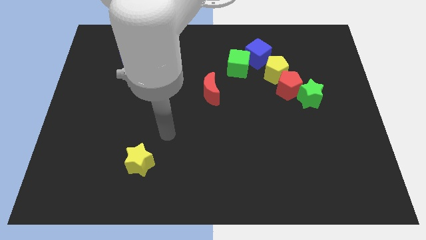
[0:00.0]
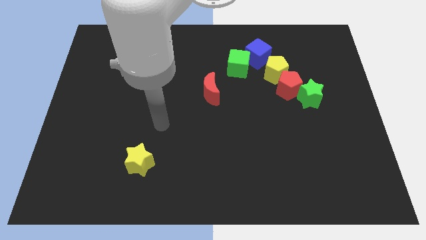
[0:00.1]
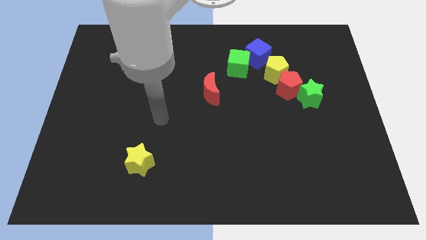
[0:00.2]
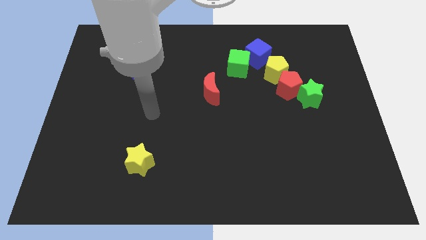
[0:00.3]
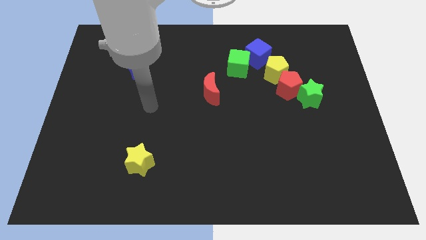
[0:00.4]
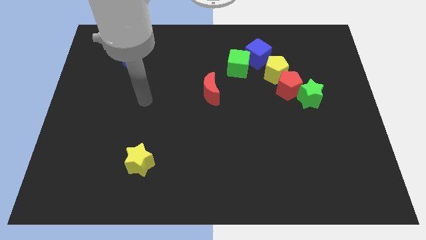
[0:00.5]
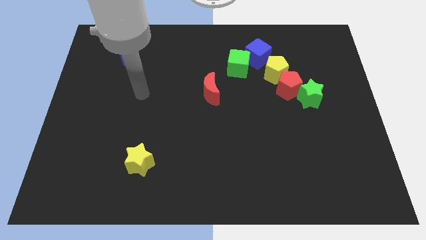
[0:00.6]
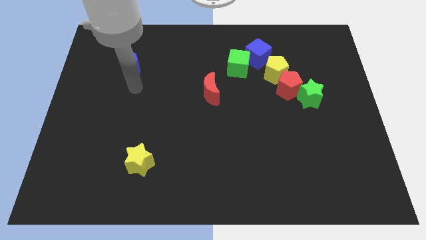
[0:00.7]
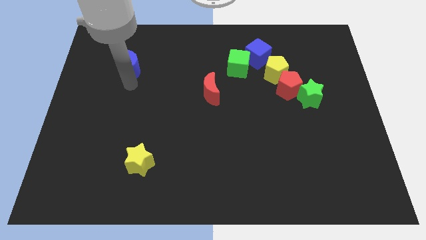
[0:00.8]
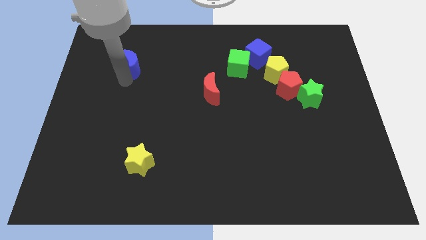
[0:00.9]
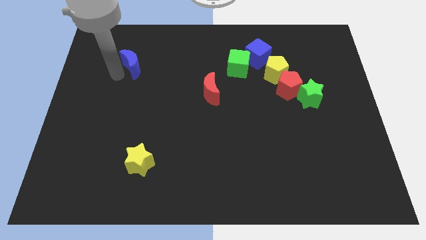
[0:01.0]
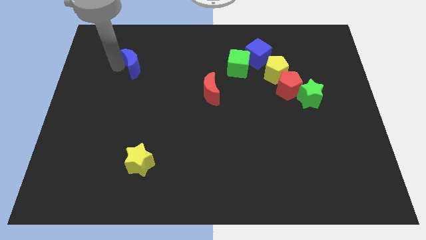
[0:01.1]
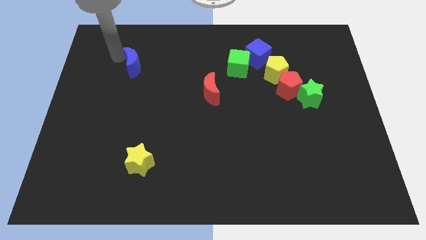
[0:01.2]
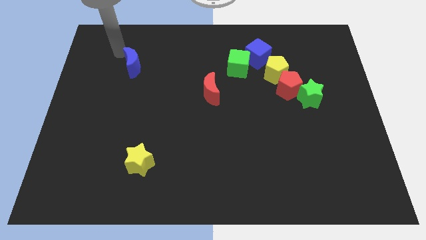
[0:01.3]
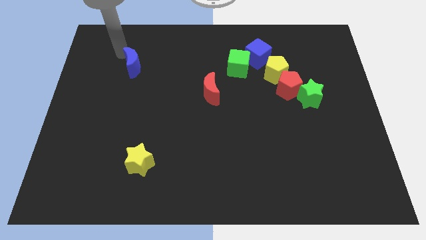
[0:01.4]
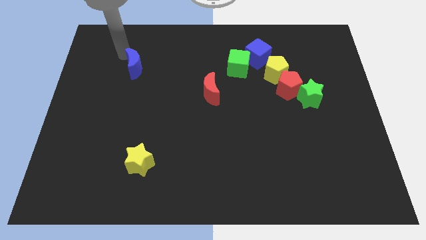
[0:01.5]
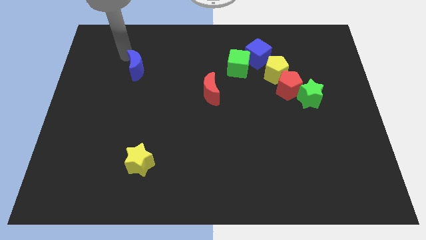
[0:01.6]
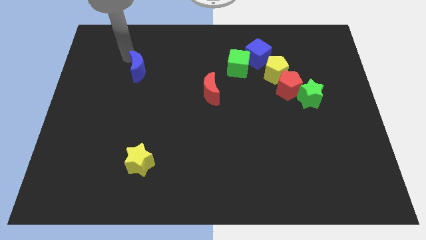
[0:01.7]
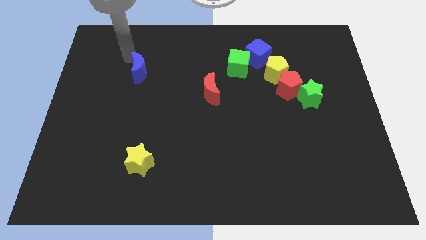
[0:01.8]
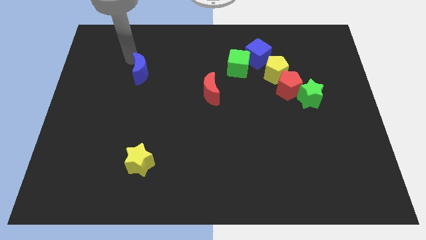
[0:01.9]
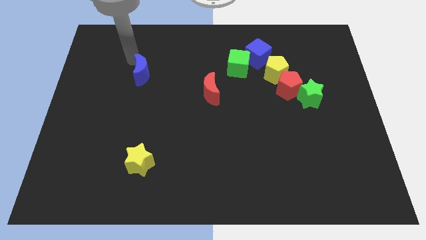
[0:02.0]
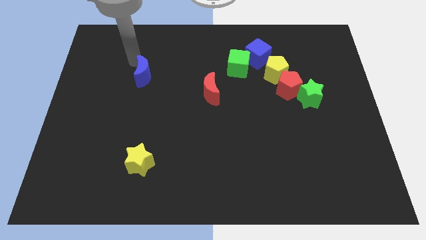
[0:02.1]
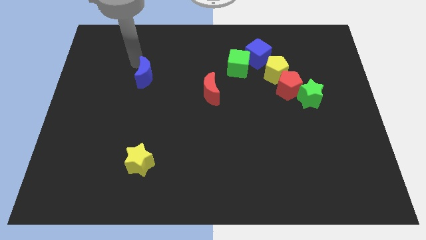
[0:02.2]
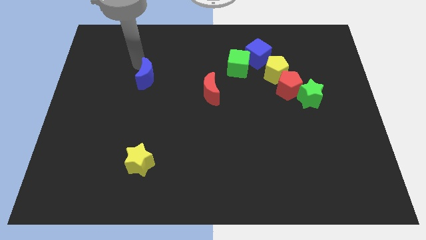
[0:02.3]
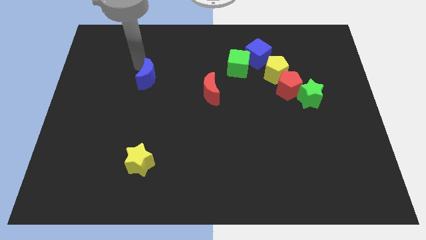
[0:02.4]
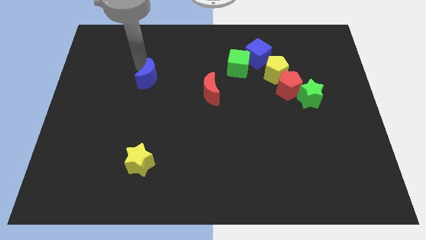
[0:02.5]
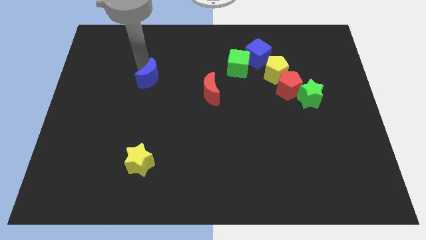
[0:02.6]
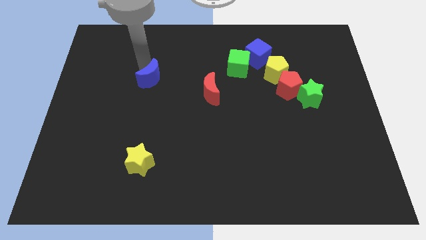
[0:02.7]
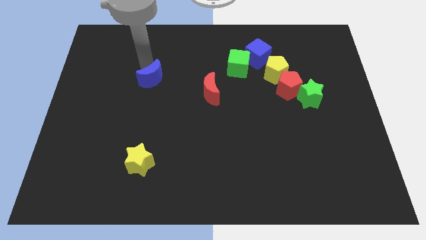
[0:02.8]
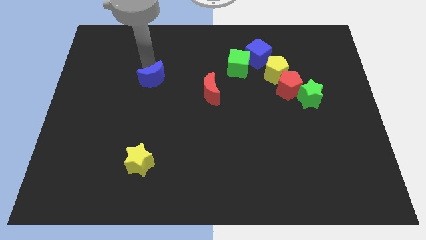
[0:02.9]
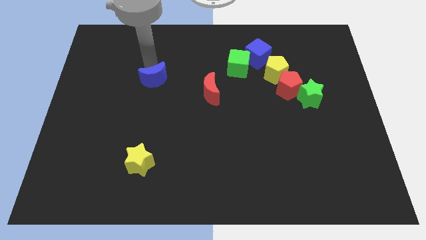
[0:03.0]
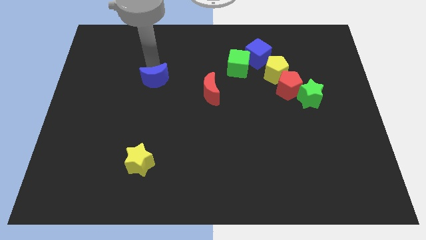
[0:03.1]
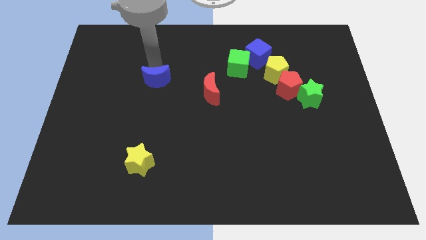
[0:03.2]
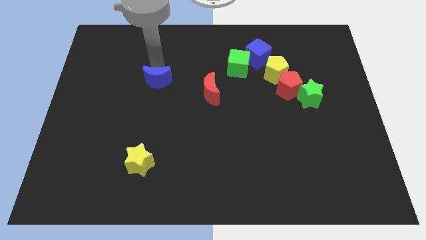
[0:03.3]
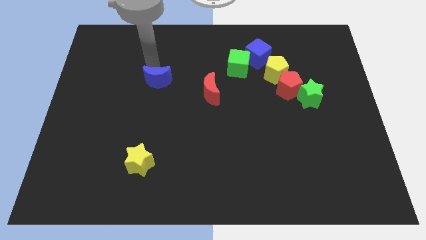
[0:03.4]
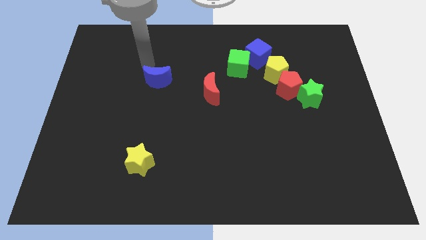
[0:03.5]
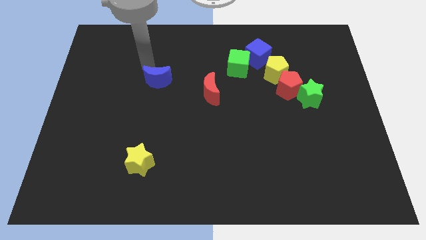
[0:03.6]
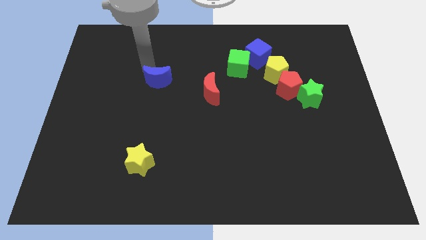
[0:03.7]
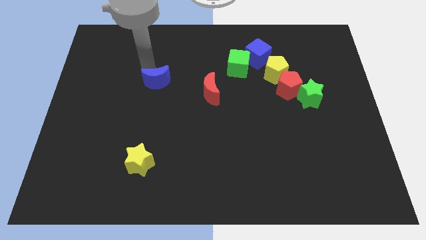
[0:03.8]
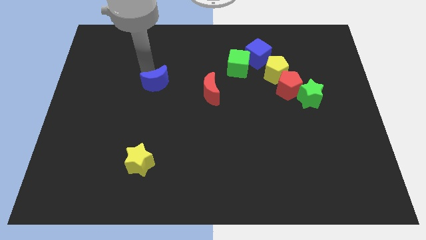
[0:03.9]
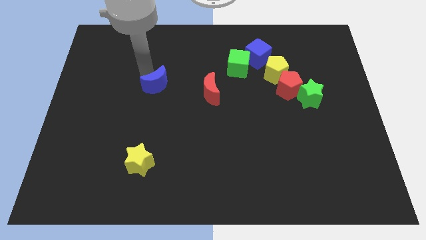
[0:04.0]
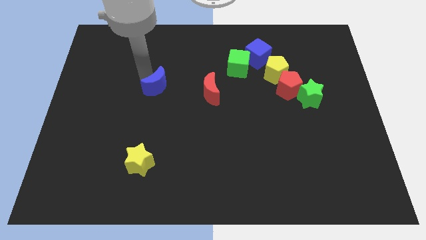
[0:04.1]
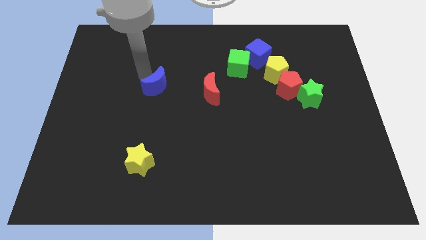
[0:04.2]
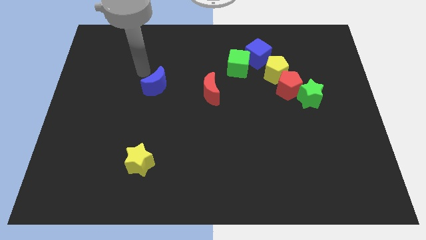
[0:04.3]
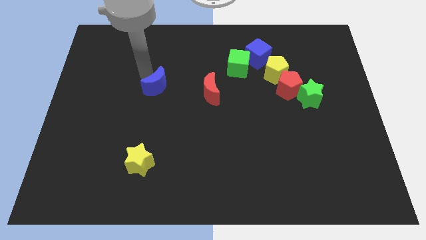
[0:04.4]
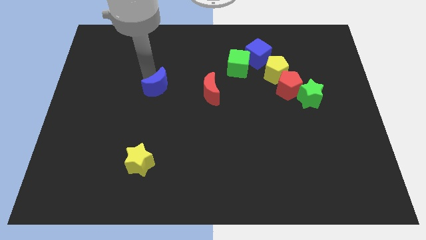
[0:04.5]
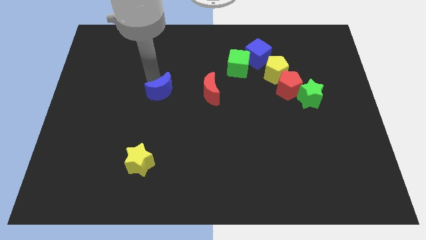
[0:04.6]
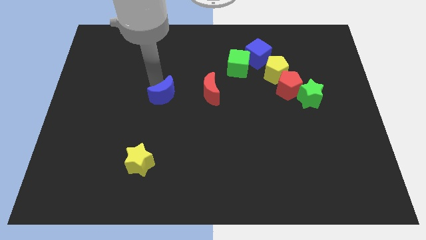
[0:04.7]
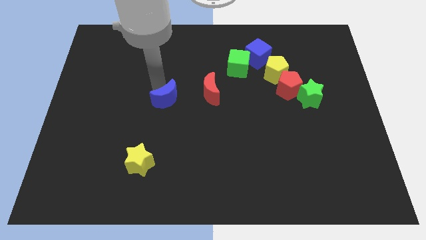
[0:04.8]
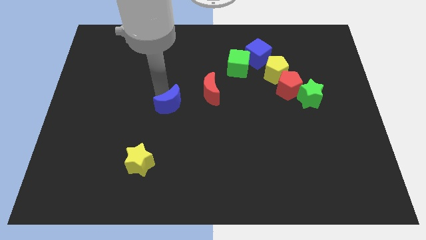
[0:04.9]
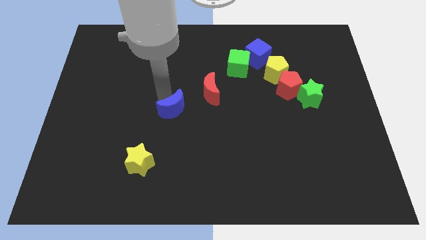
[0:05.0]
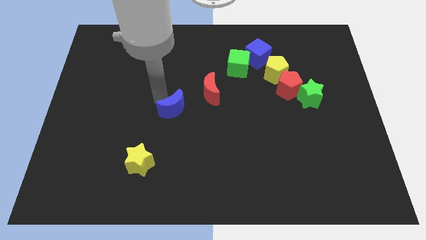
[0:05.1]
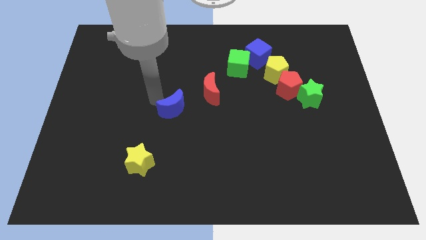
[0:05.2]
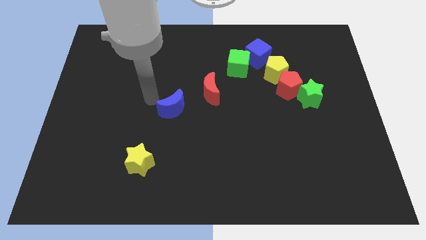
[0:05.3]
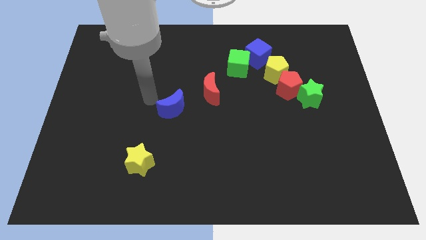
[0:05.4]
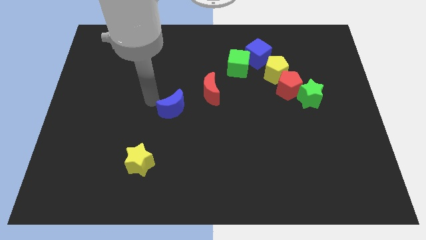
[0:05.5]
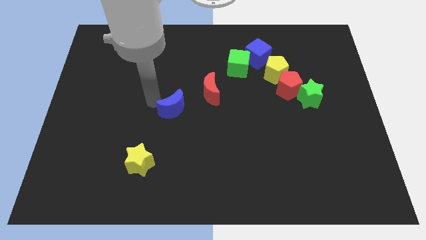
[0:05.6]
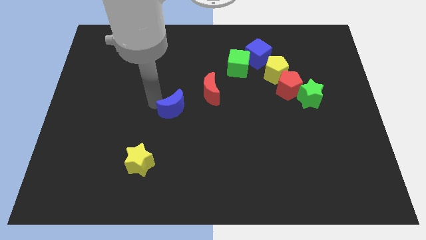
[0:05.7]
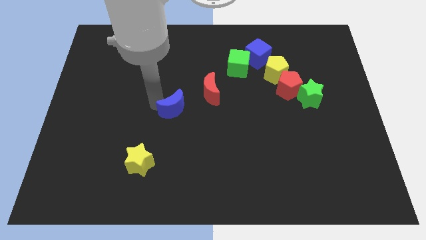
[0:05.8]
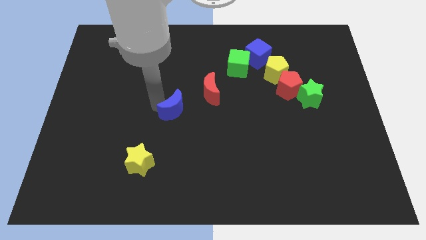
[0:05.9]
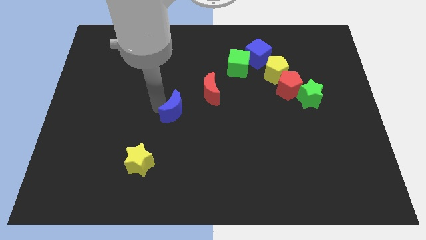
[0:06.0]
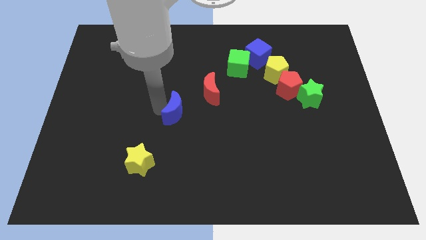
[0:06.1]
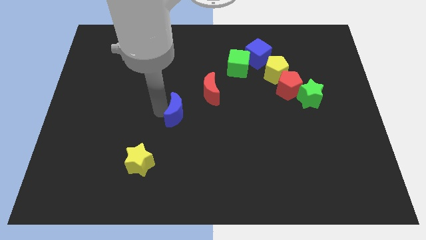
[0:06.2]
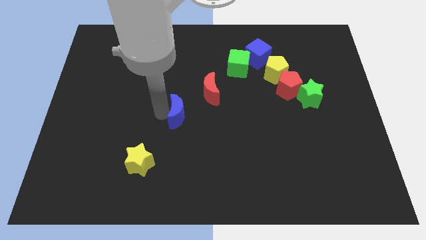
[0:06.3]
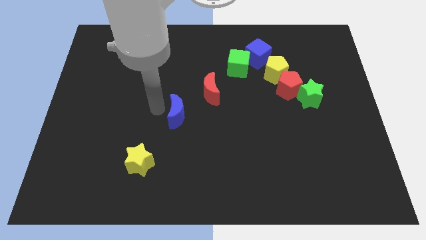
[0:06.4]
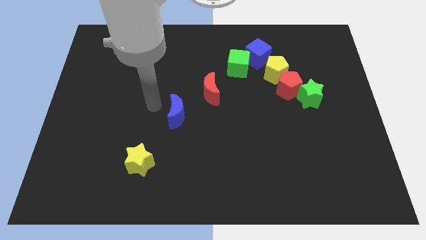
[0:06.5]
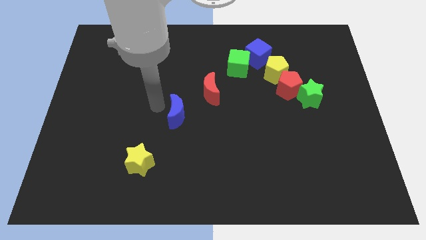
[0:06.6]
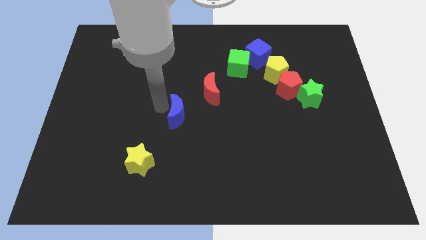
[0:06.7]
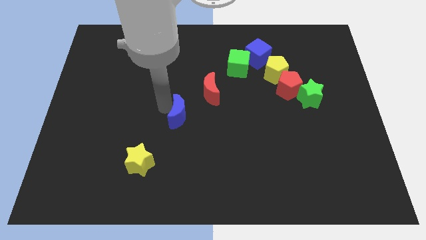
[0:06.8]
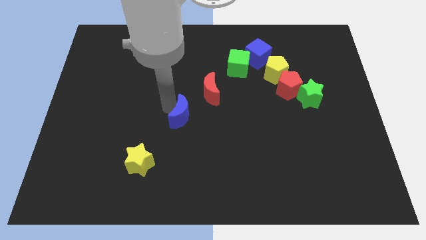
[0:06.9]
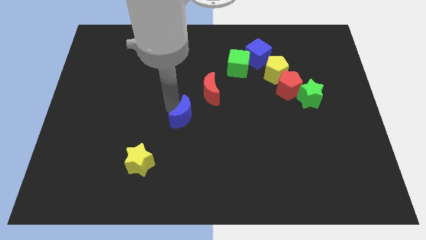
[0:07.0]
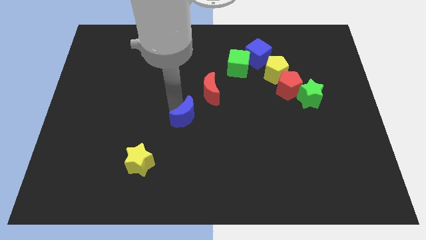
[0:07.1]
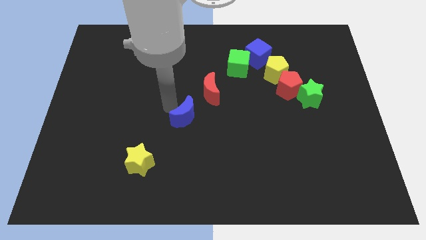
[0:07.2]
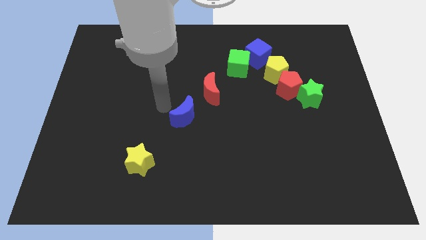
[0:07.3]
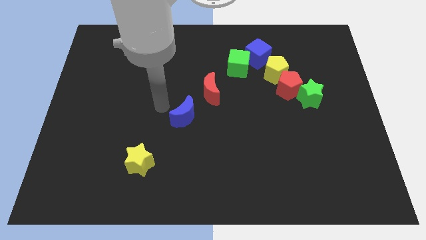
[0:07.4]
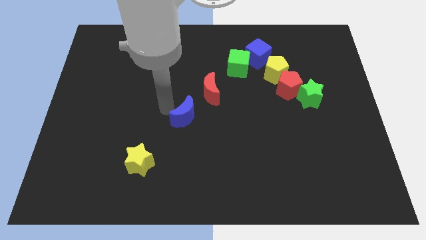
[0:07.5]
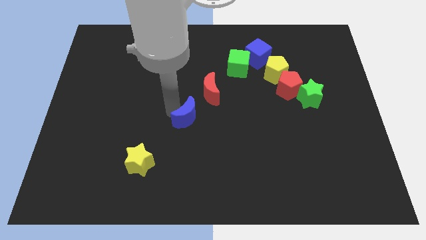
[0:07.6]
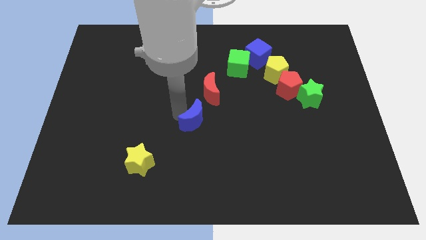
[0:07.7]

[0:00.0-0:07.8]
move the blue moon to the bottom of the red moon

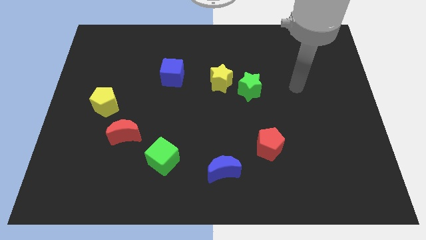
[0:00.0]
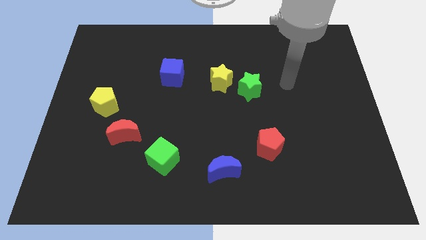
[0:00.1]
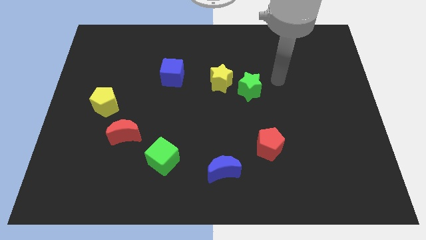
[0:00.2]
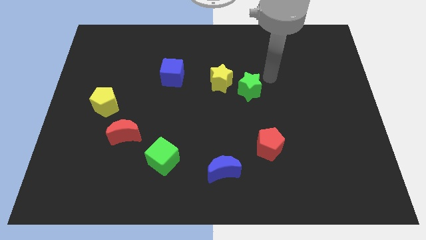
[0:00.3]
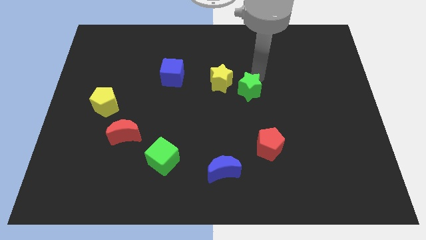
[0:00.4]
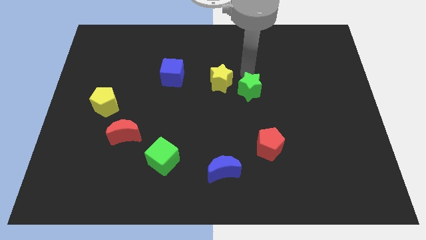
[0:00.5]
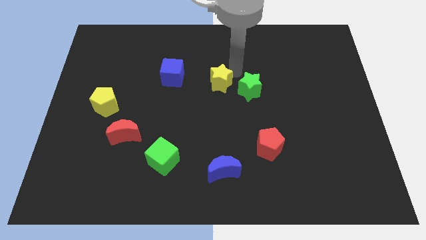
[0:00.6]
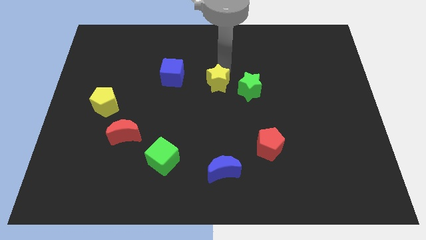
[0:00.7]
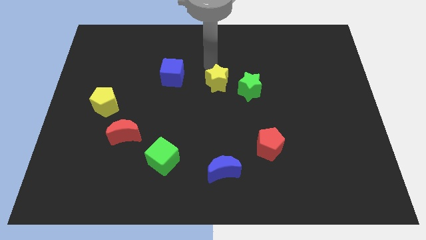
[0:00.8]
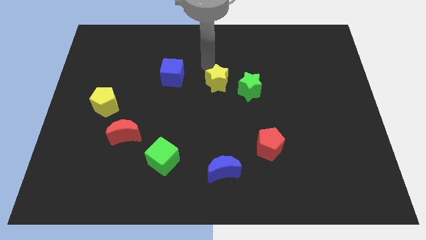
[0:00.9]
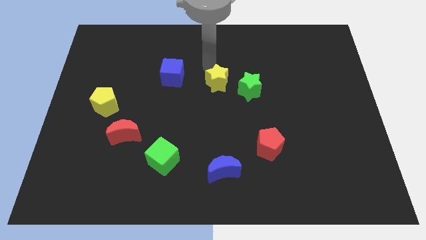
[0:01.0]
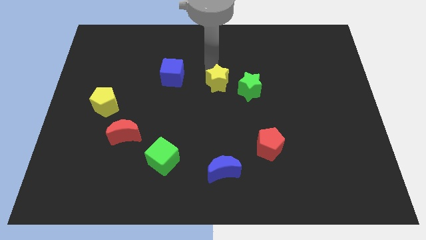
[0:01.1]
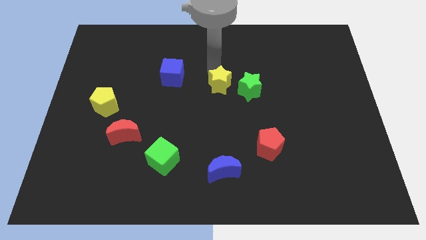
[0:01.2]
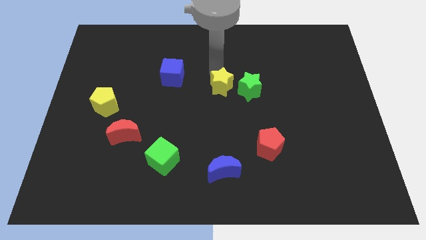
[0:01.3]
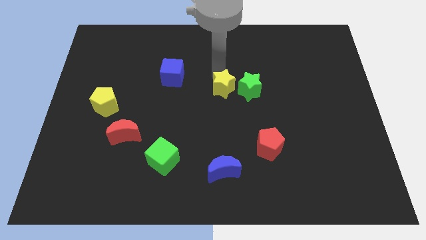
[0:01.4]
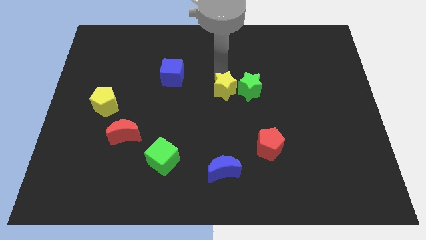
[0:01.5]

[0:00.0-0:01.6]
put the yellow star diagonally down and to the left of the green star
